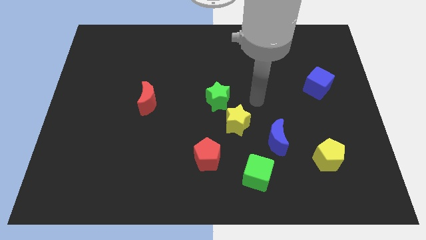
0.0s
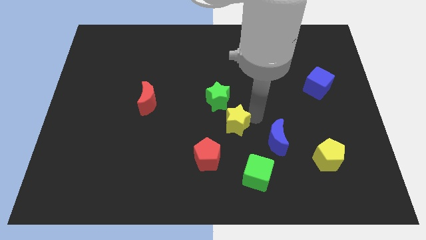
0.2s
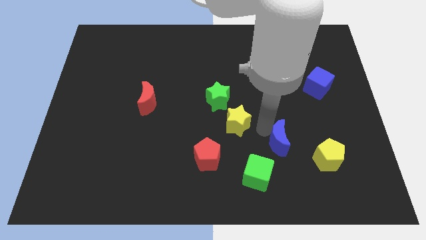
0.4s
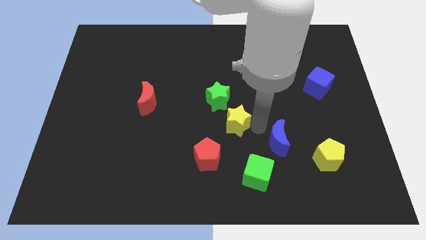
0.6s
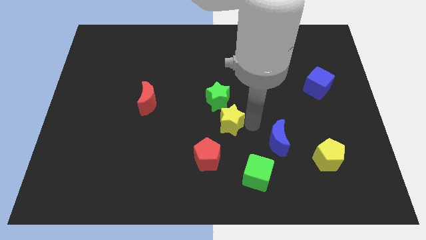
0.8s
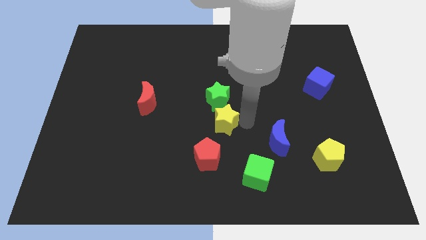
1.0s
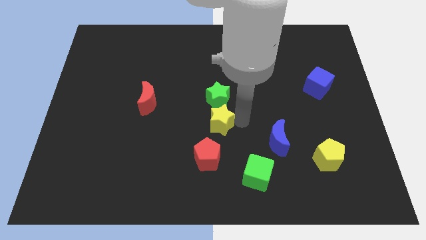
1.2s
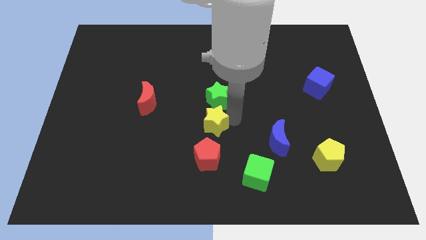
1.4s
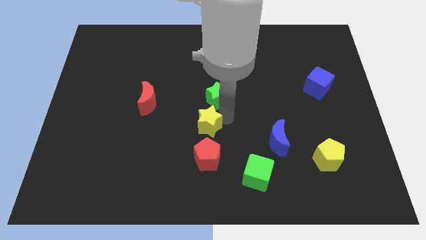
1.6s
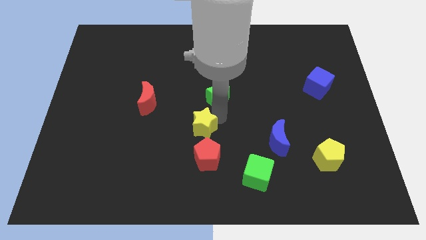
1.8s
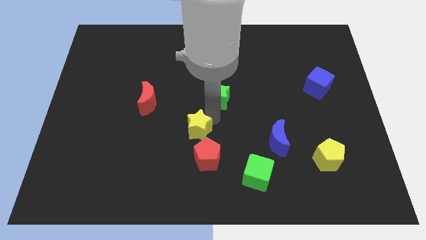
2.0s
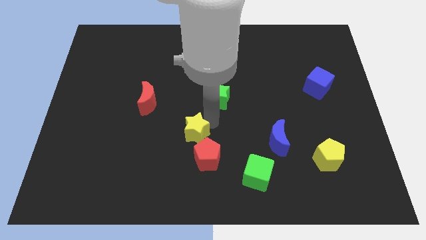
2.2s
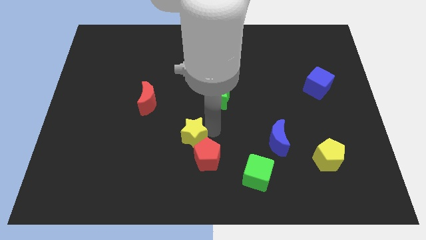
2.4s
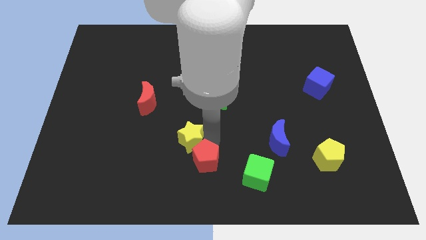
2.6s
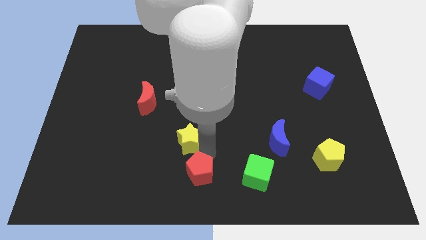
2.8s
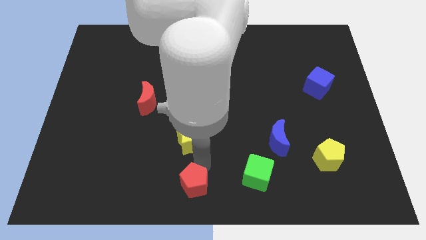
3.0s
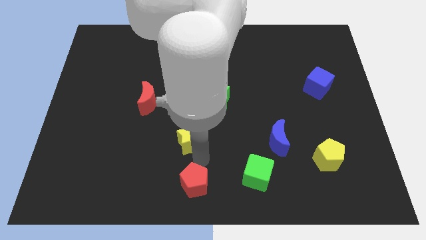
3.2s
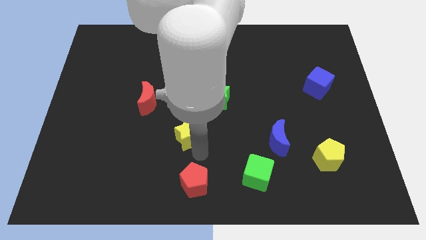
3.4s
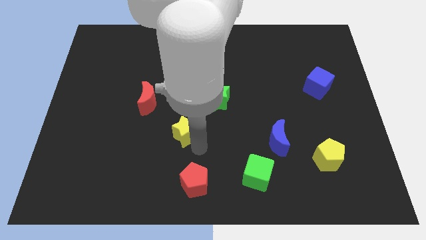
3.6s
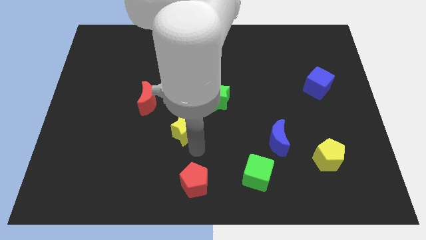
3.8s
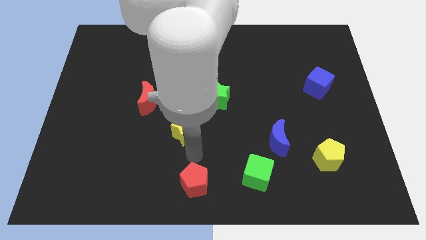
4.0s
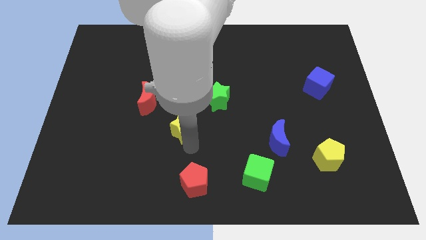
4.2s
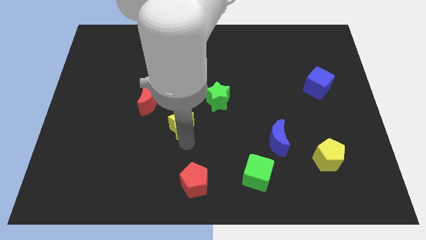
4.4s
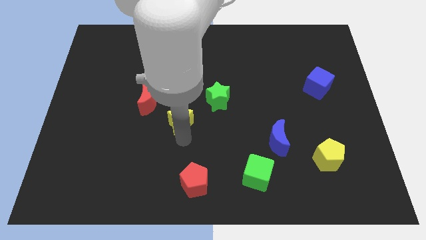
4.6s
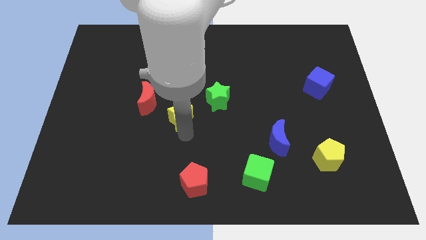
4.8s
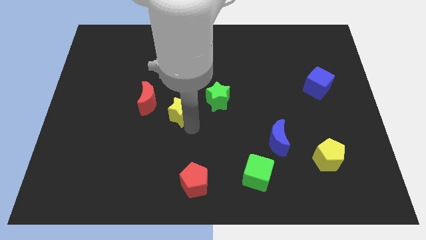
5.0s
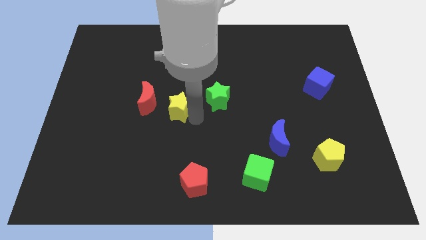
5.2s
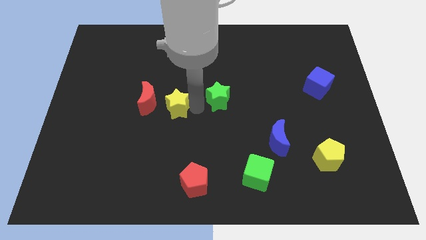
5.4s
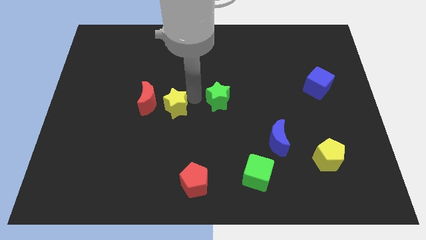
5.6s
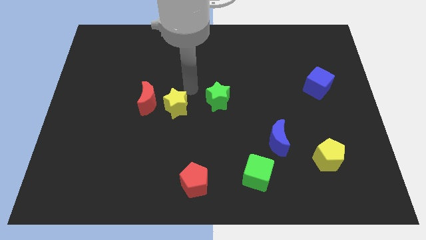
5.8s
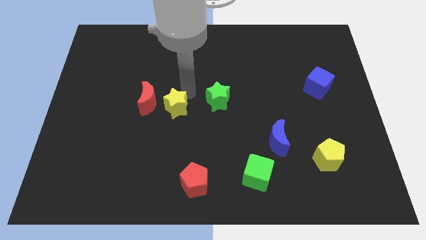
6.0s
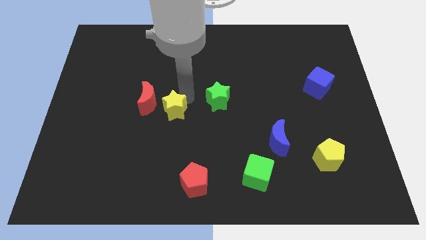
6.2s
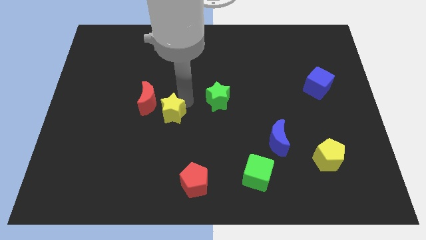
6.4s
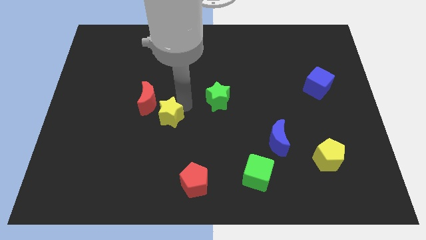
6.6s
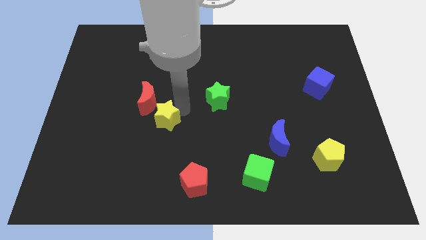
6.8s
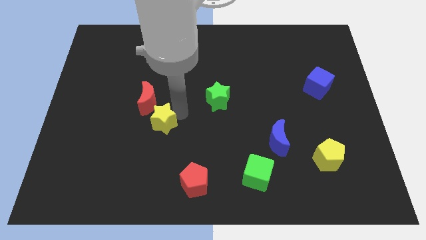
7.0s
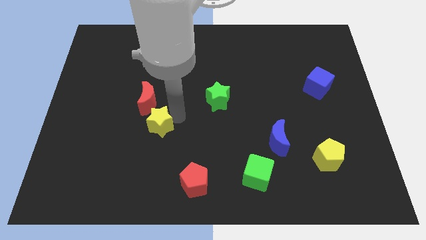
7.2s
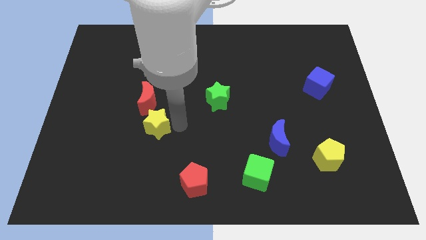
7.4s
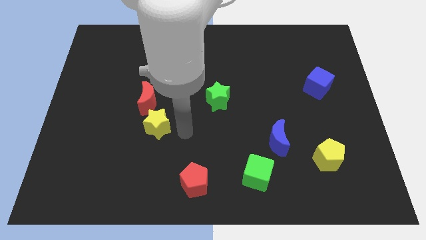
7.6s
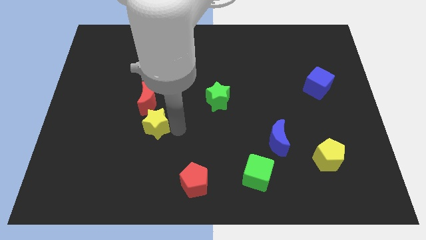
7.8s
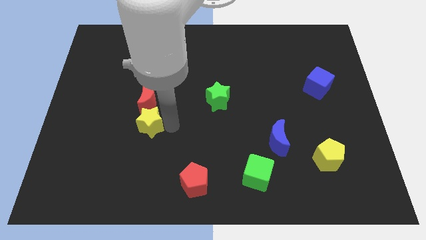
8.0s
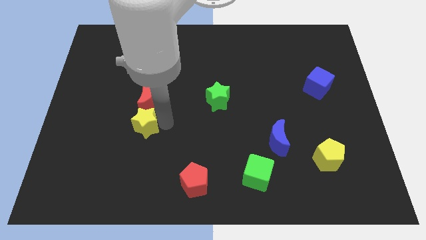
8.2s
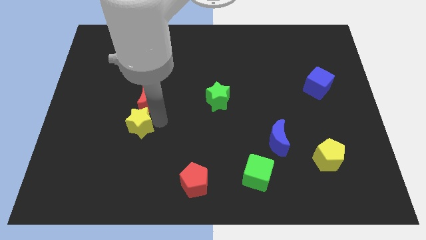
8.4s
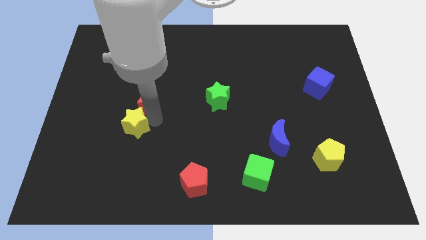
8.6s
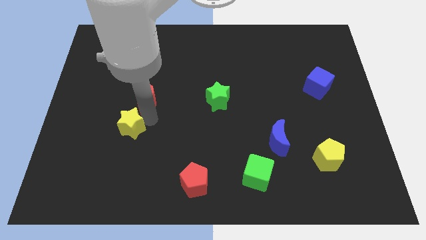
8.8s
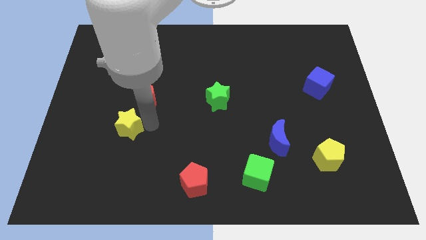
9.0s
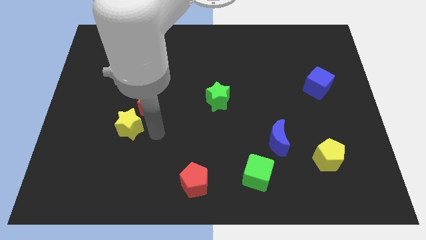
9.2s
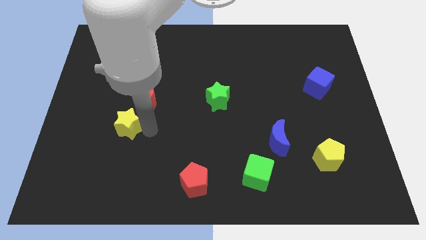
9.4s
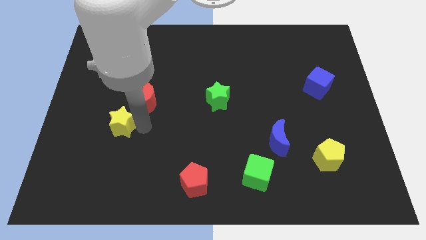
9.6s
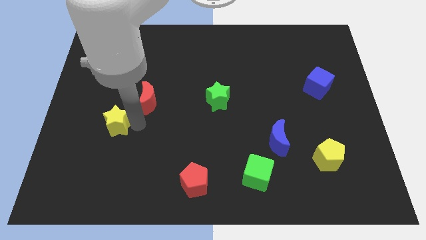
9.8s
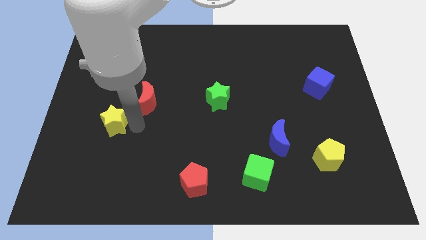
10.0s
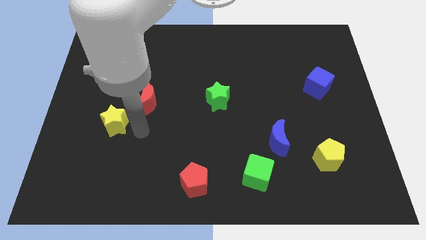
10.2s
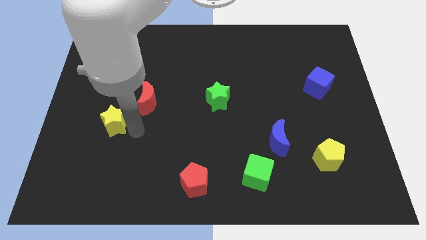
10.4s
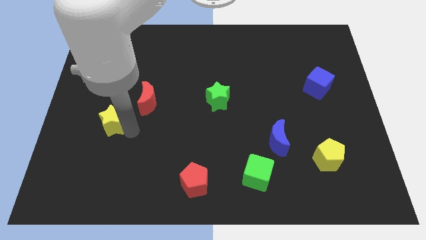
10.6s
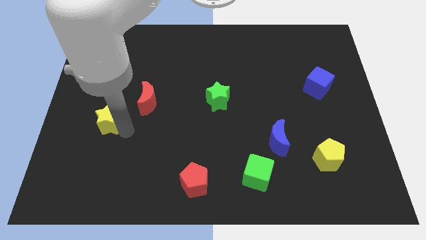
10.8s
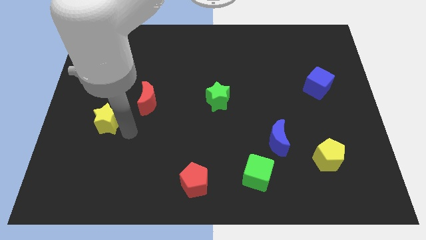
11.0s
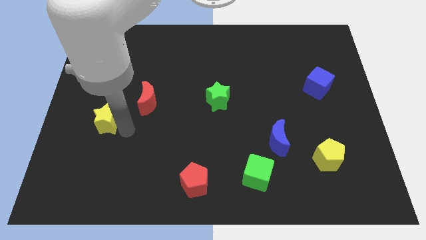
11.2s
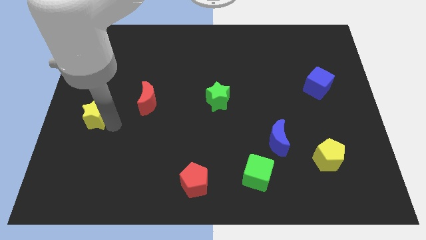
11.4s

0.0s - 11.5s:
slide the yellow star to the center left

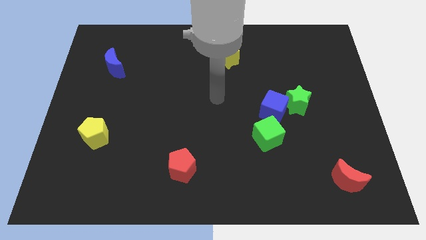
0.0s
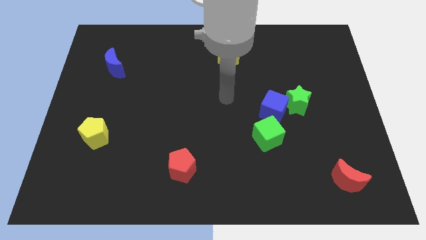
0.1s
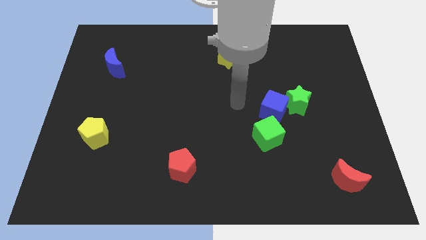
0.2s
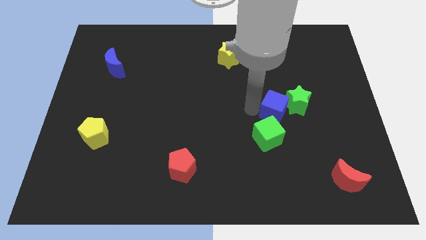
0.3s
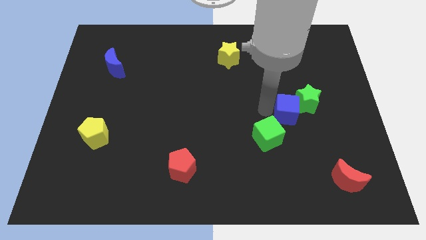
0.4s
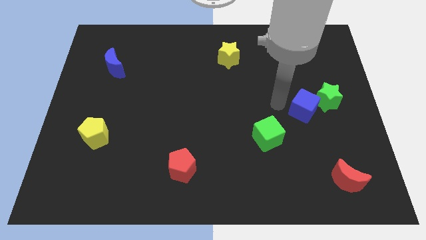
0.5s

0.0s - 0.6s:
slide the green star to the right side
